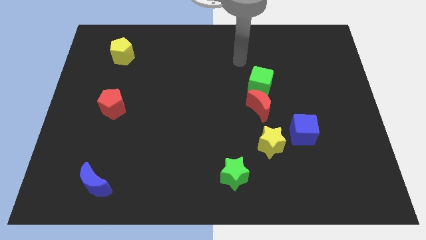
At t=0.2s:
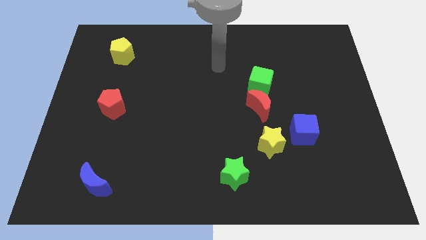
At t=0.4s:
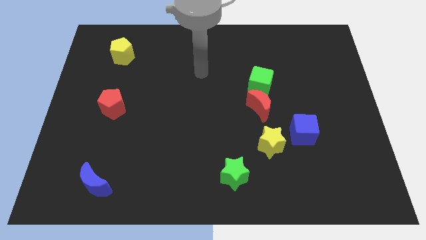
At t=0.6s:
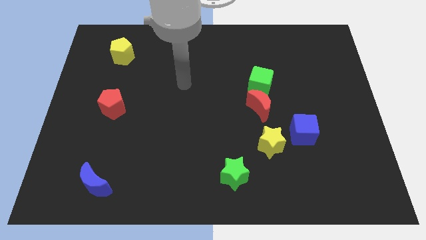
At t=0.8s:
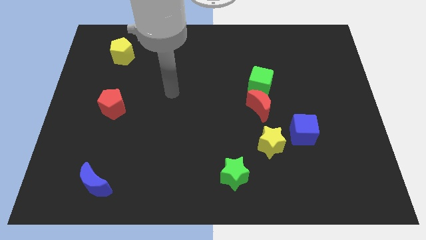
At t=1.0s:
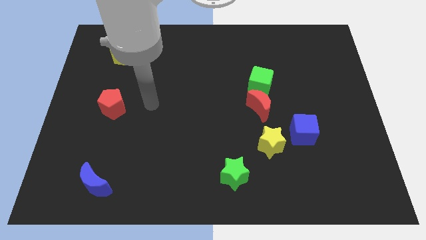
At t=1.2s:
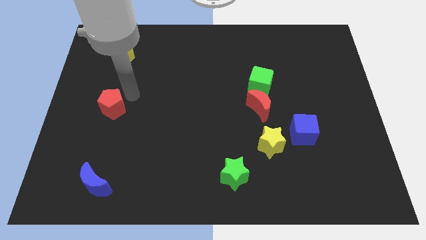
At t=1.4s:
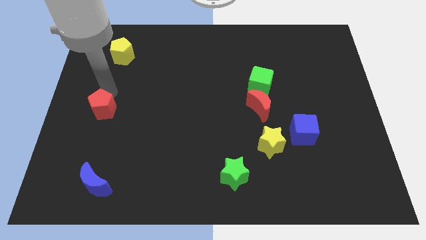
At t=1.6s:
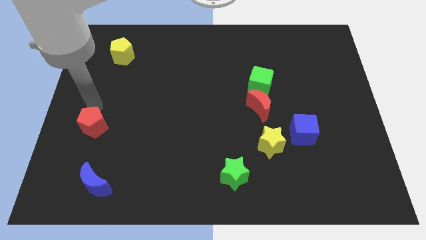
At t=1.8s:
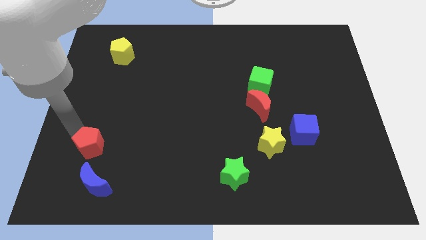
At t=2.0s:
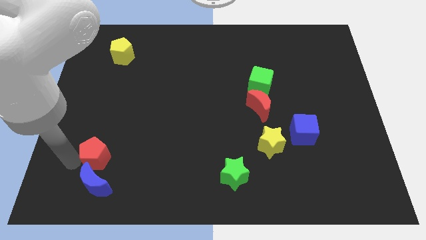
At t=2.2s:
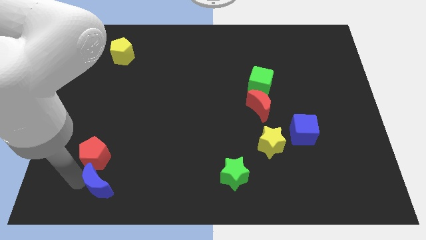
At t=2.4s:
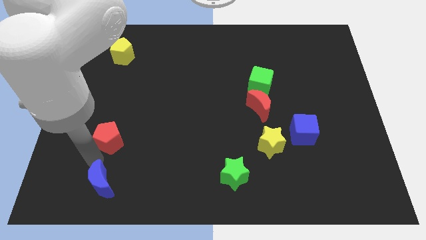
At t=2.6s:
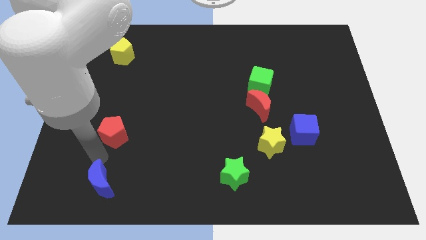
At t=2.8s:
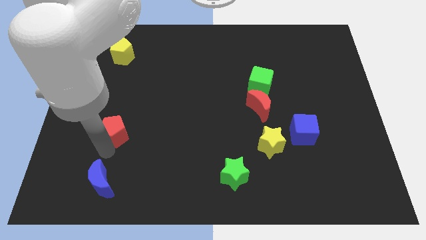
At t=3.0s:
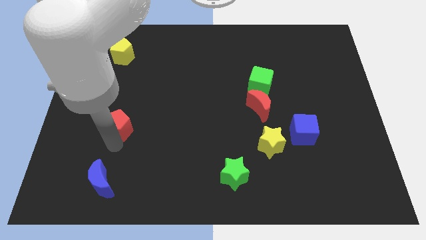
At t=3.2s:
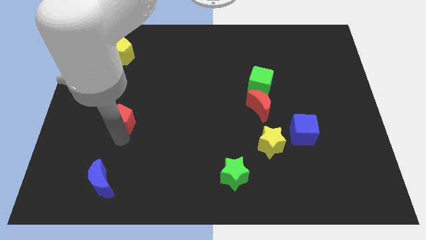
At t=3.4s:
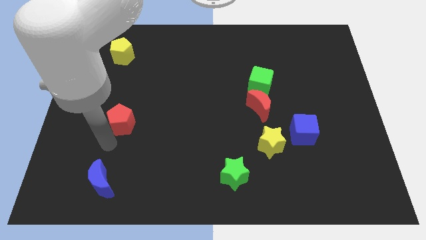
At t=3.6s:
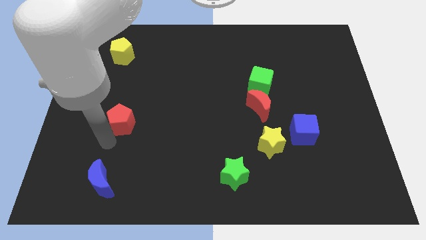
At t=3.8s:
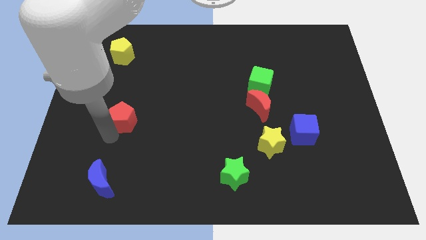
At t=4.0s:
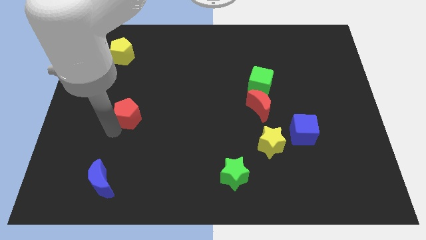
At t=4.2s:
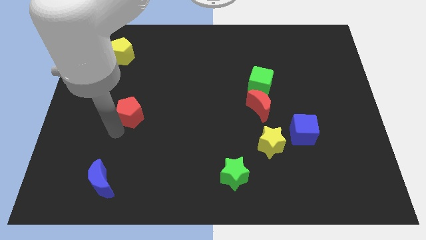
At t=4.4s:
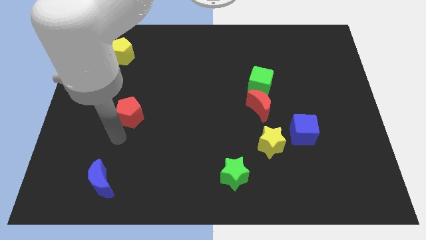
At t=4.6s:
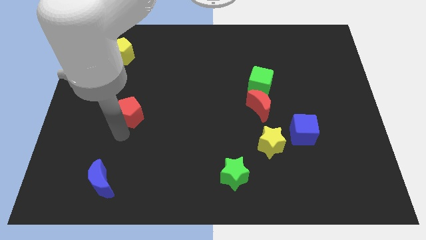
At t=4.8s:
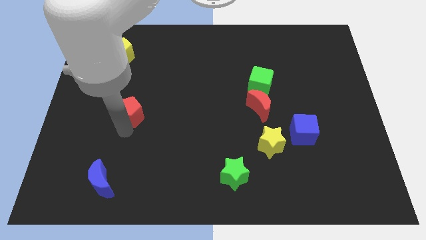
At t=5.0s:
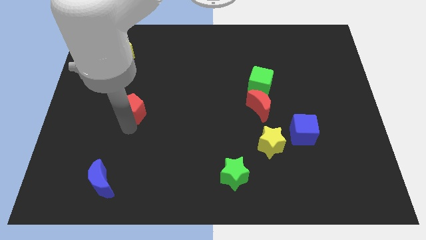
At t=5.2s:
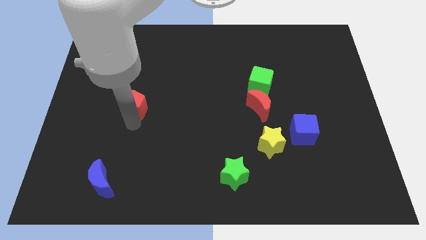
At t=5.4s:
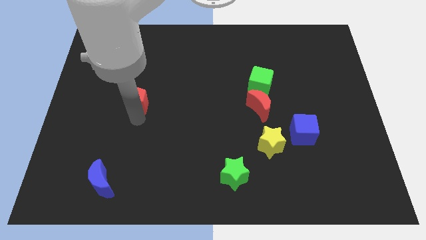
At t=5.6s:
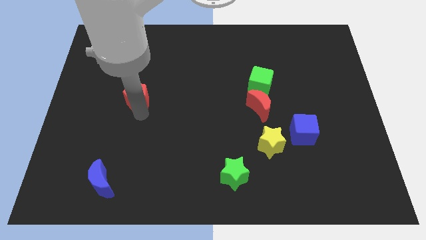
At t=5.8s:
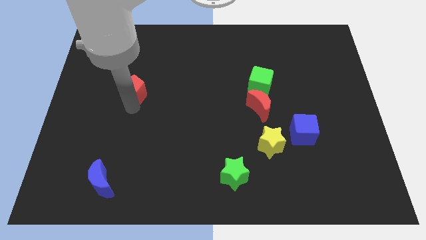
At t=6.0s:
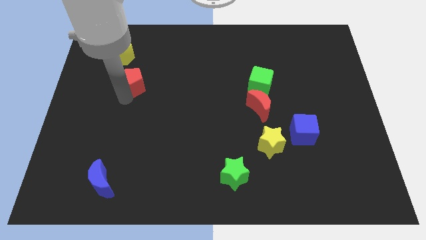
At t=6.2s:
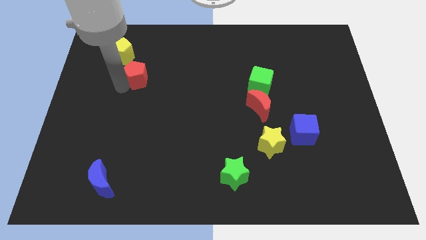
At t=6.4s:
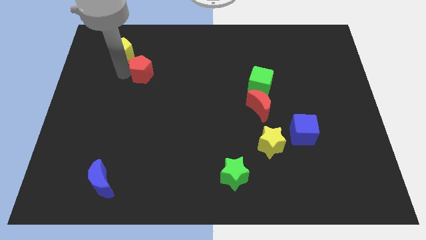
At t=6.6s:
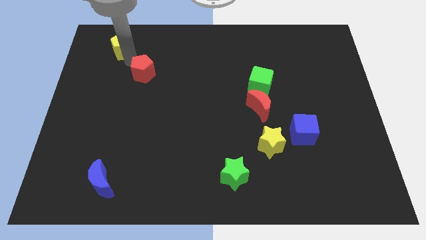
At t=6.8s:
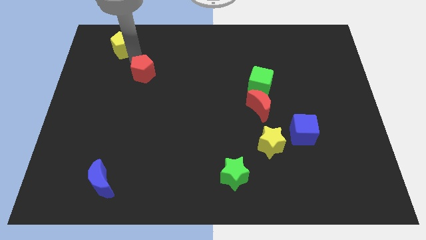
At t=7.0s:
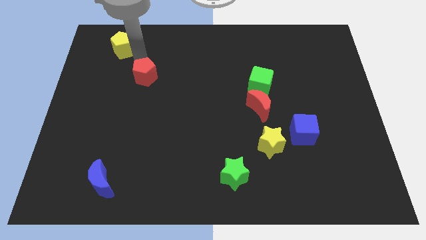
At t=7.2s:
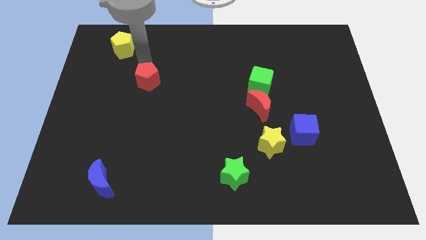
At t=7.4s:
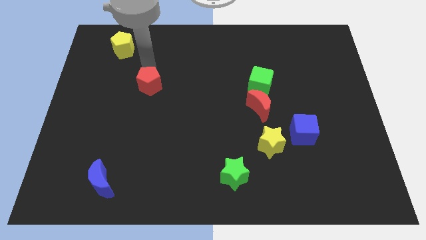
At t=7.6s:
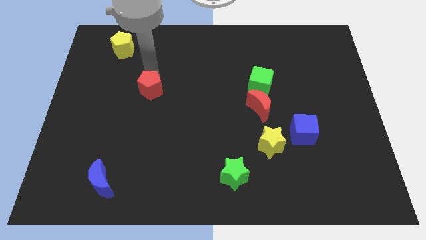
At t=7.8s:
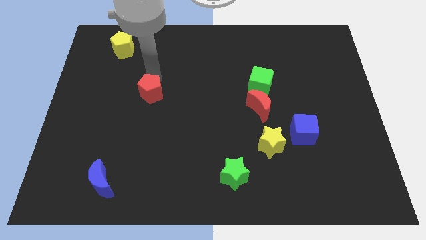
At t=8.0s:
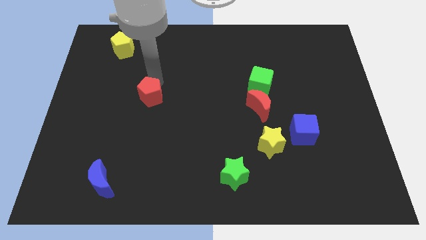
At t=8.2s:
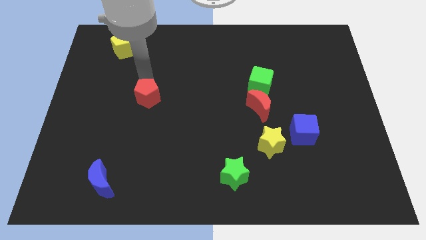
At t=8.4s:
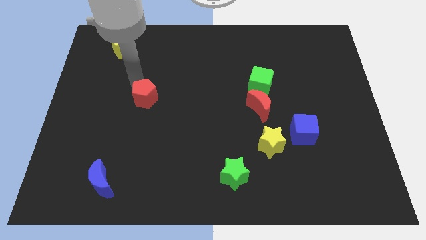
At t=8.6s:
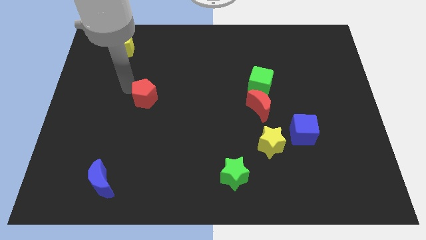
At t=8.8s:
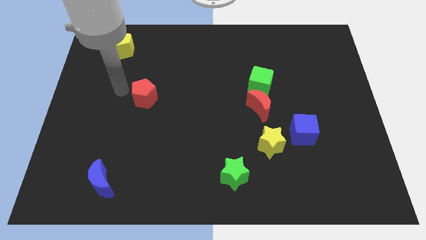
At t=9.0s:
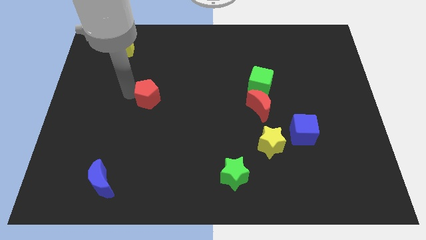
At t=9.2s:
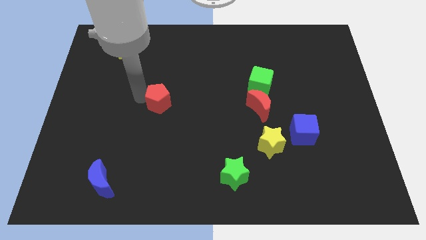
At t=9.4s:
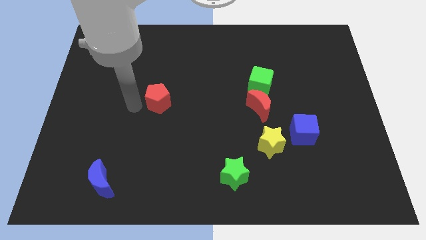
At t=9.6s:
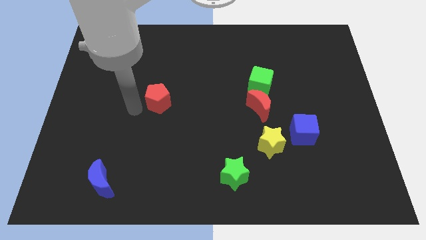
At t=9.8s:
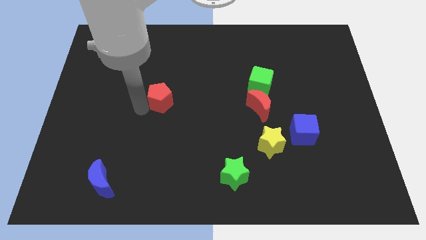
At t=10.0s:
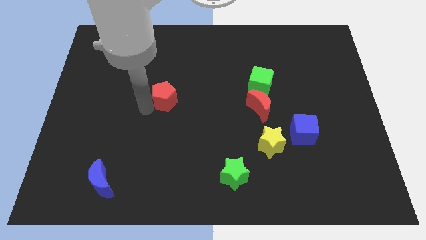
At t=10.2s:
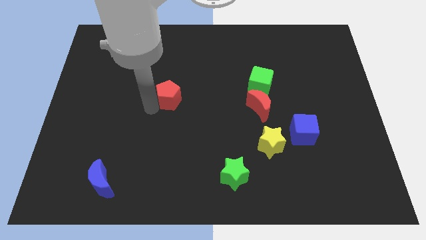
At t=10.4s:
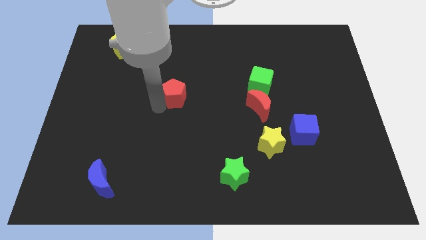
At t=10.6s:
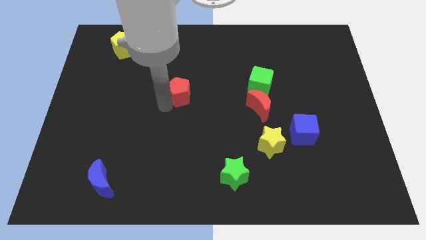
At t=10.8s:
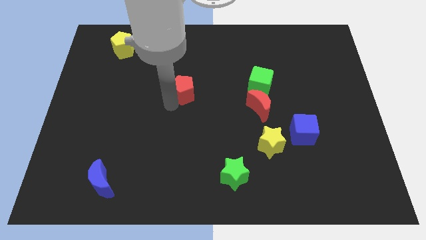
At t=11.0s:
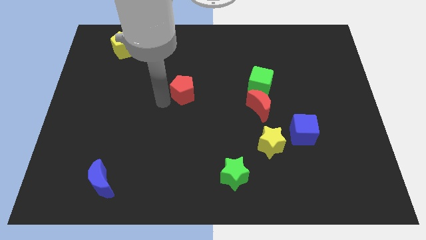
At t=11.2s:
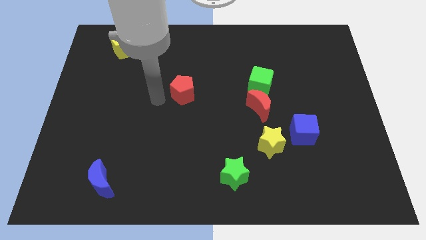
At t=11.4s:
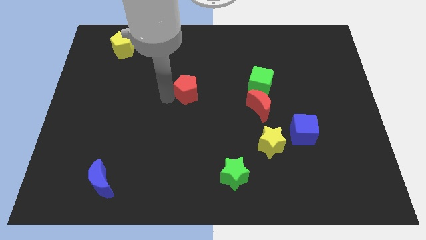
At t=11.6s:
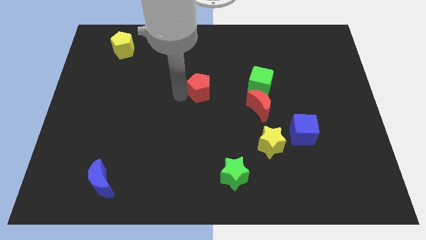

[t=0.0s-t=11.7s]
put the red pentagon just left of the green cube
